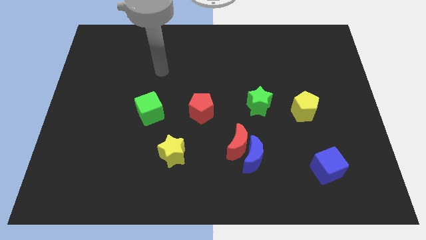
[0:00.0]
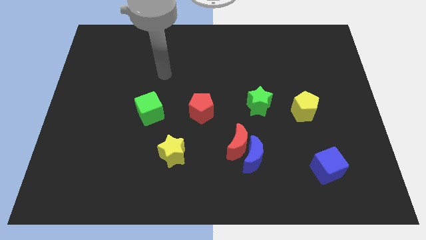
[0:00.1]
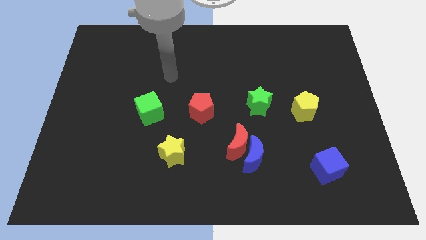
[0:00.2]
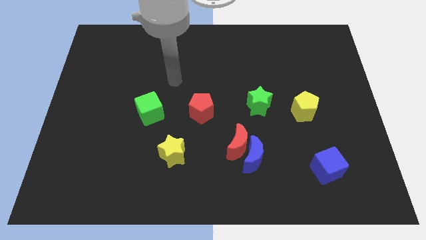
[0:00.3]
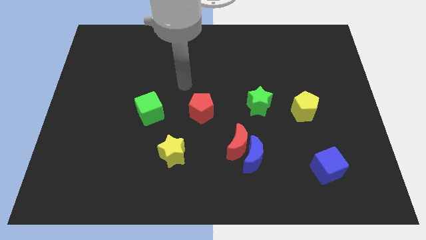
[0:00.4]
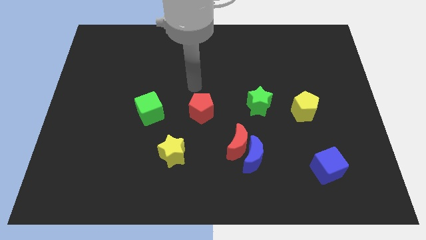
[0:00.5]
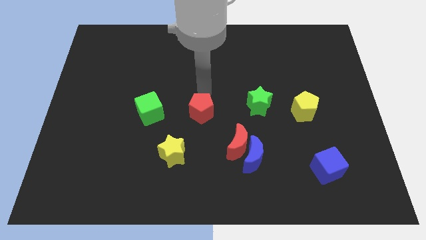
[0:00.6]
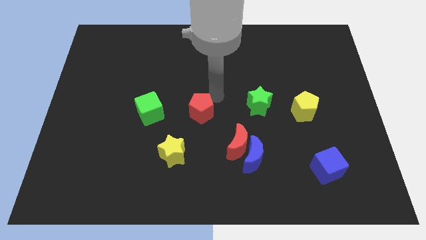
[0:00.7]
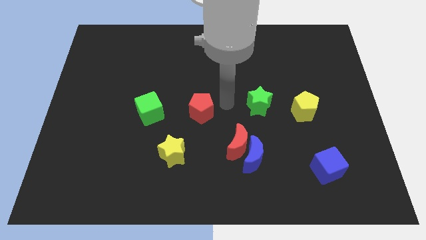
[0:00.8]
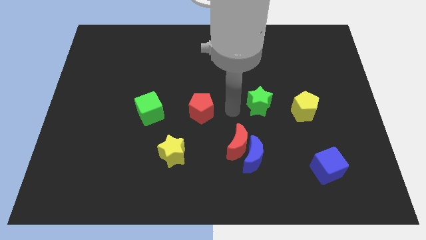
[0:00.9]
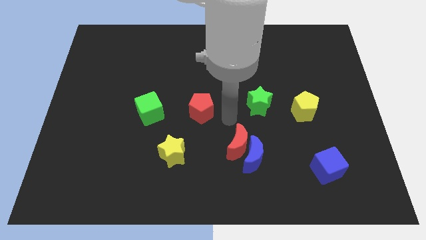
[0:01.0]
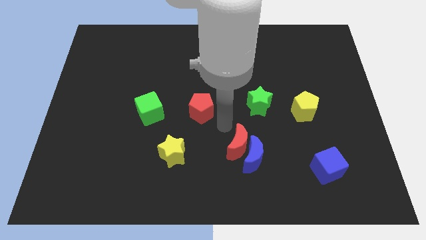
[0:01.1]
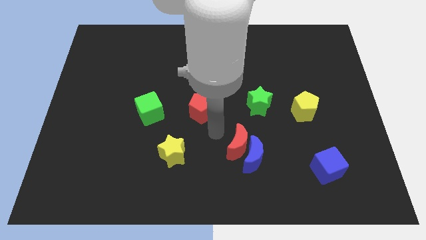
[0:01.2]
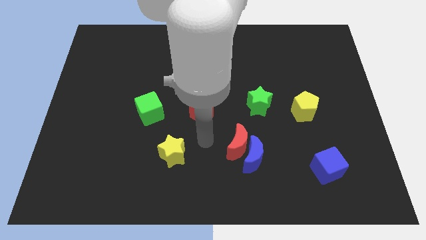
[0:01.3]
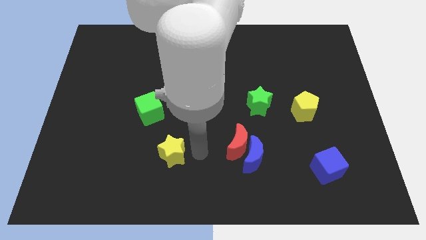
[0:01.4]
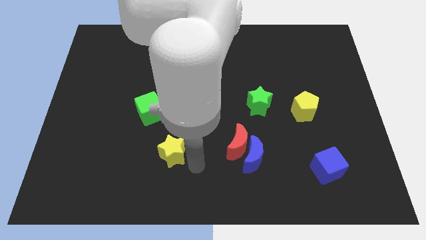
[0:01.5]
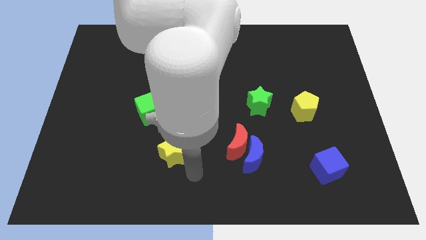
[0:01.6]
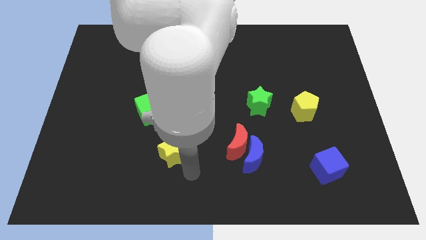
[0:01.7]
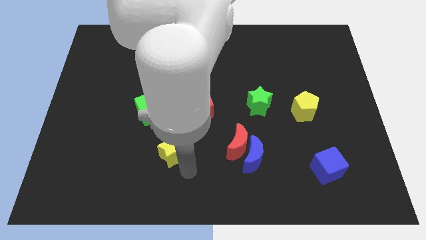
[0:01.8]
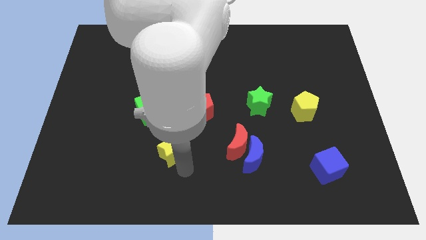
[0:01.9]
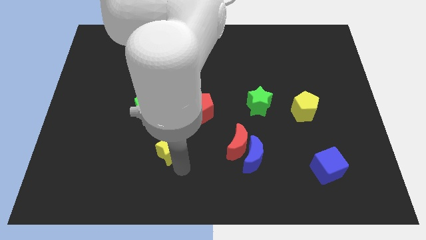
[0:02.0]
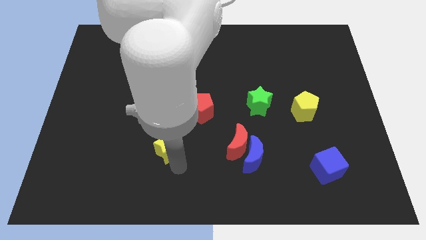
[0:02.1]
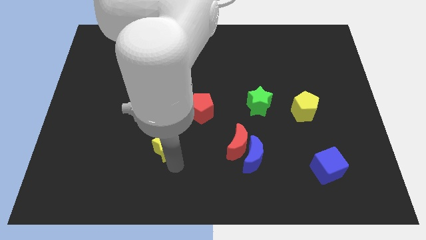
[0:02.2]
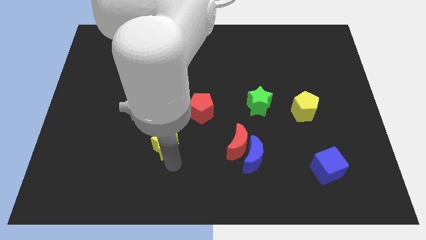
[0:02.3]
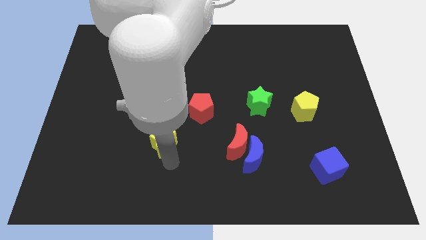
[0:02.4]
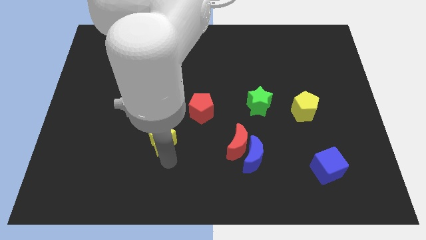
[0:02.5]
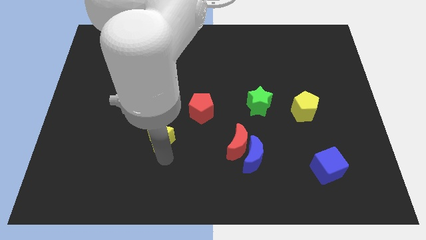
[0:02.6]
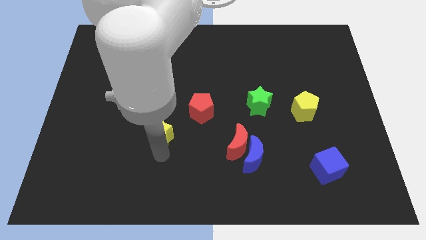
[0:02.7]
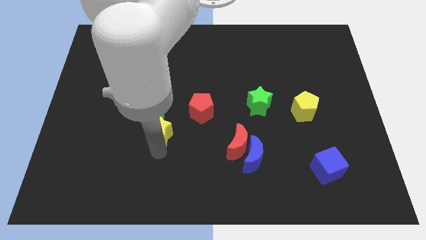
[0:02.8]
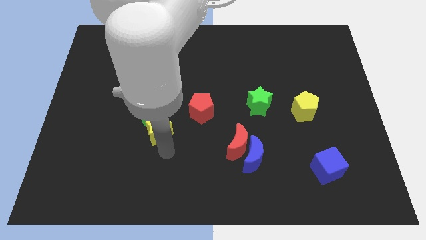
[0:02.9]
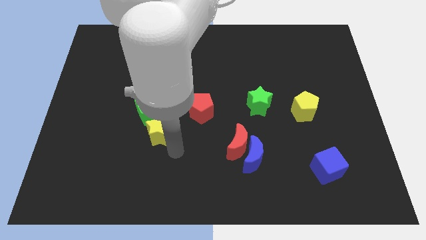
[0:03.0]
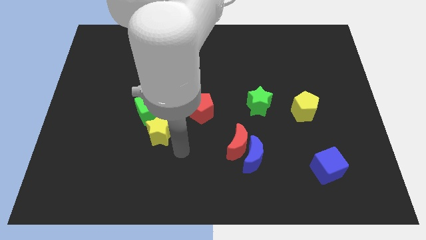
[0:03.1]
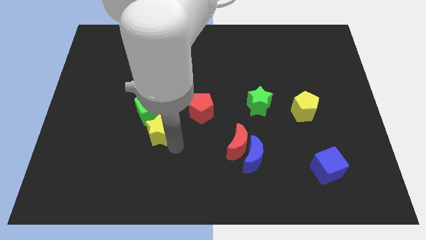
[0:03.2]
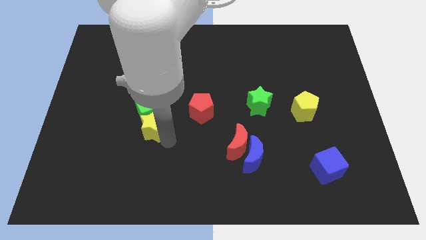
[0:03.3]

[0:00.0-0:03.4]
slightly move the yellow star up and left

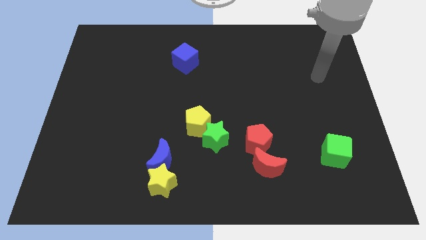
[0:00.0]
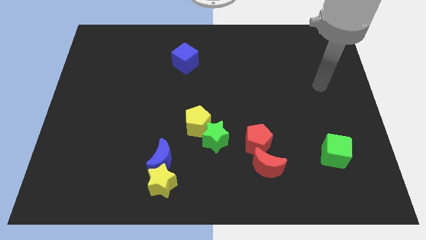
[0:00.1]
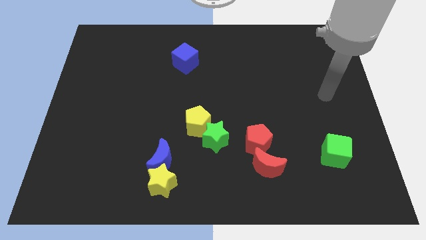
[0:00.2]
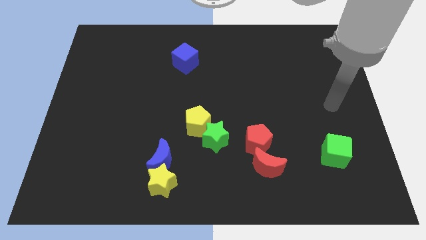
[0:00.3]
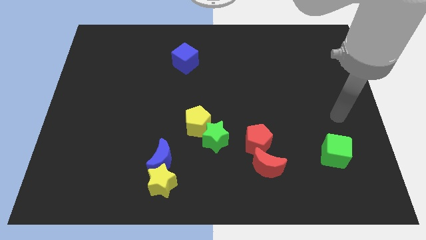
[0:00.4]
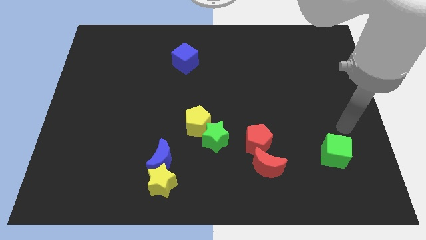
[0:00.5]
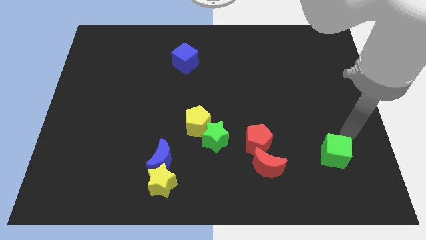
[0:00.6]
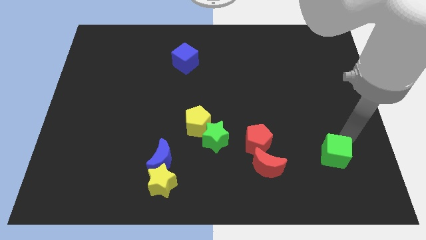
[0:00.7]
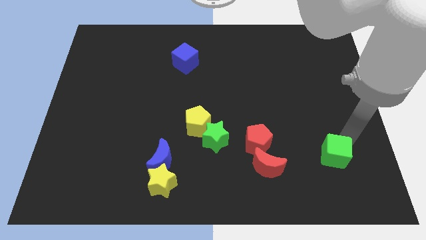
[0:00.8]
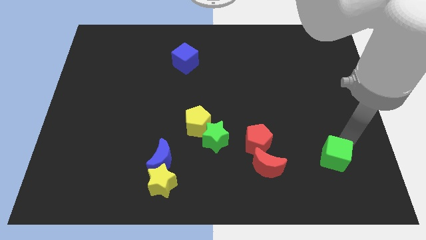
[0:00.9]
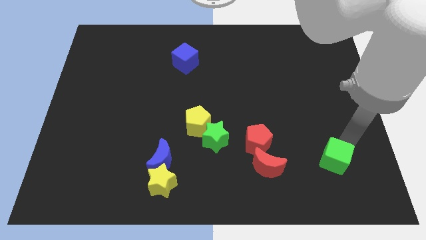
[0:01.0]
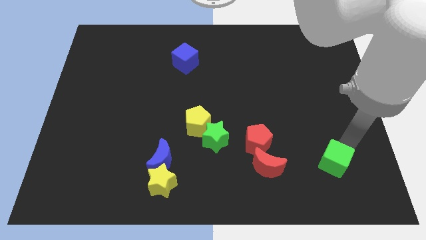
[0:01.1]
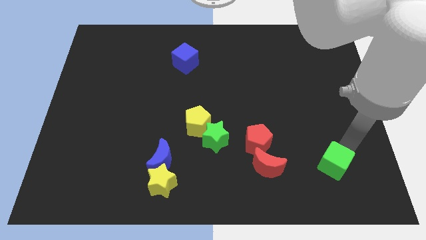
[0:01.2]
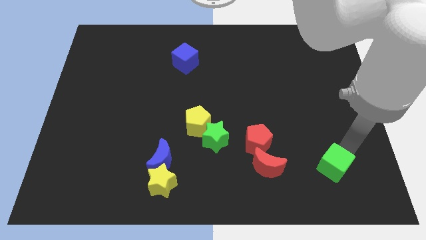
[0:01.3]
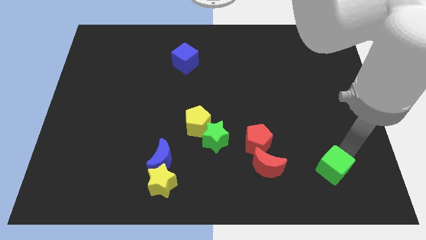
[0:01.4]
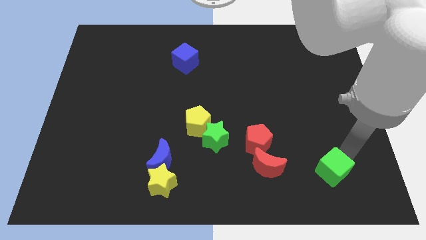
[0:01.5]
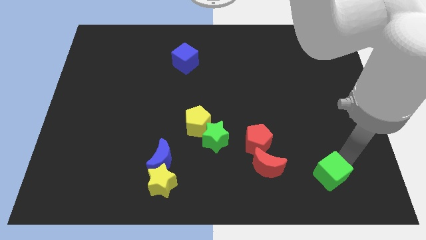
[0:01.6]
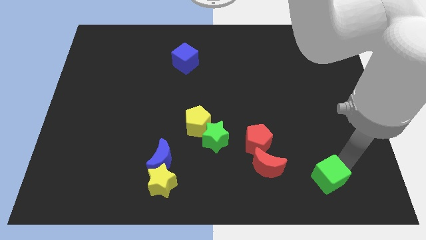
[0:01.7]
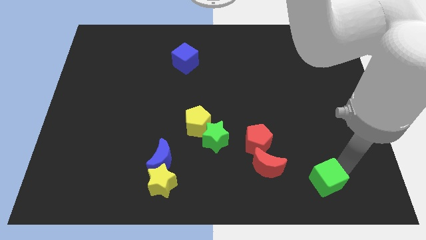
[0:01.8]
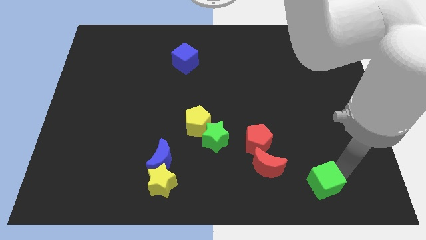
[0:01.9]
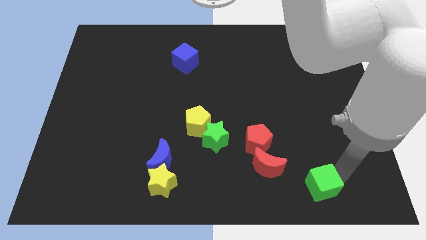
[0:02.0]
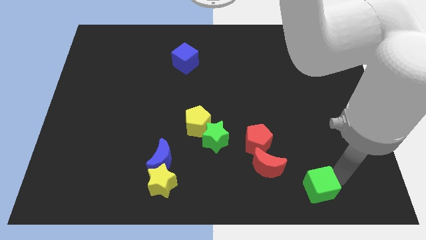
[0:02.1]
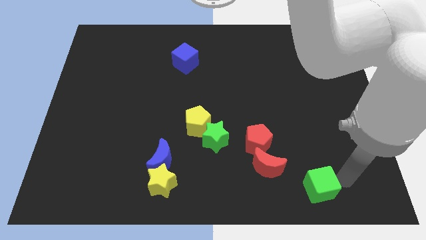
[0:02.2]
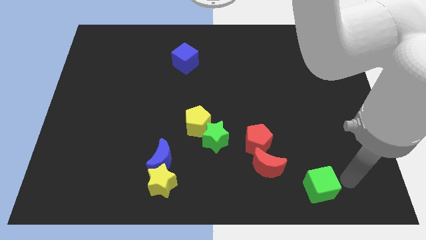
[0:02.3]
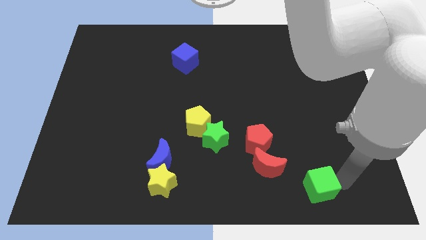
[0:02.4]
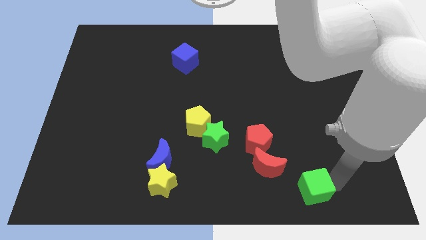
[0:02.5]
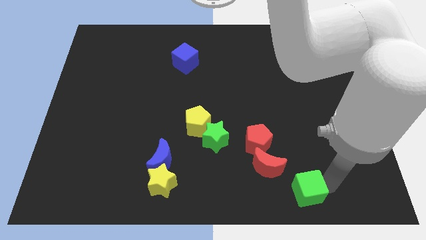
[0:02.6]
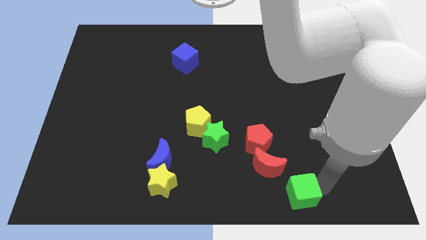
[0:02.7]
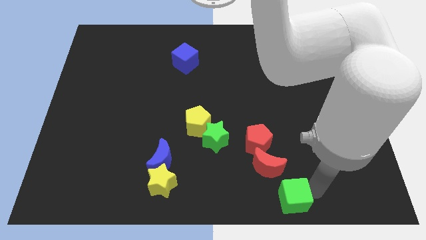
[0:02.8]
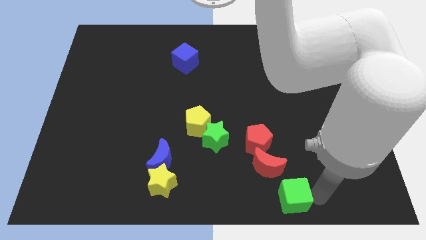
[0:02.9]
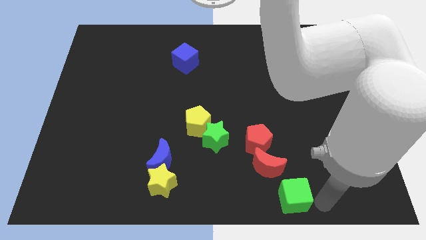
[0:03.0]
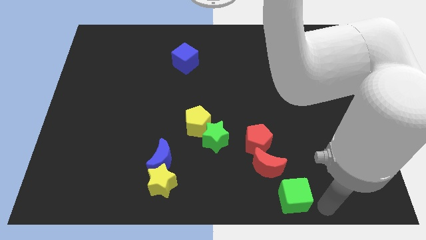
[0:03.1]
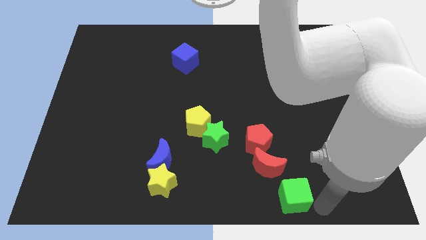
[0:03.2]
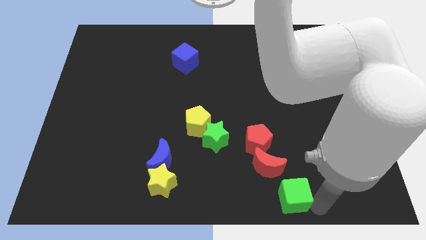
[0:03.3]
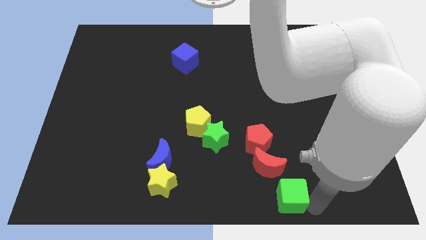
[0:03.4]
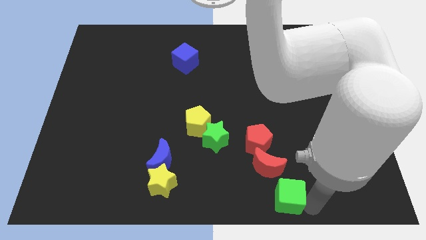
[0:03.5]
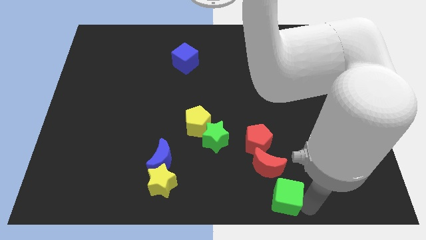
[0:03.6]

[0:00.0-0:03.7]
slide the green cube left a little bit

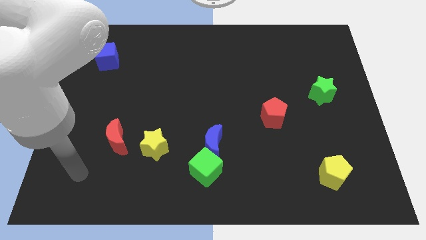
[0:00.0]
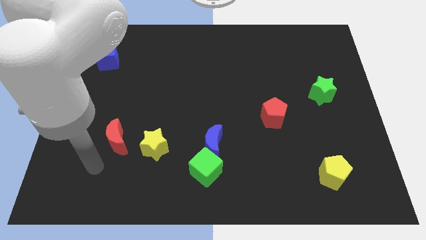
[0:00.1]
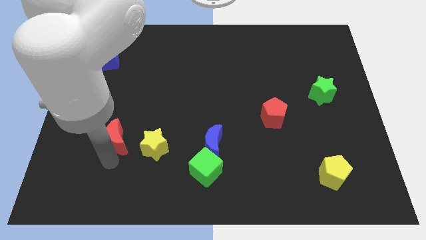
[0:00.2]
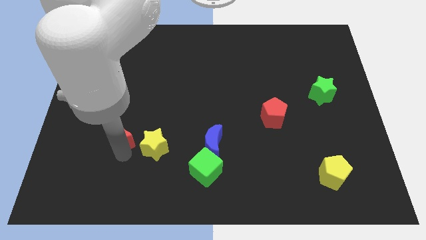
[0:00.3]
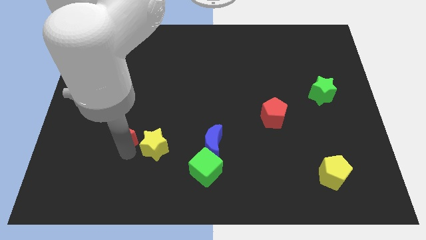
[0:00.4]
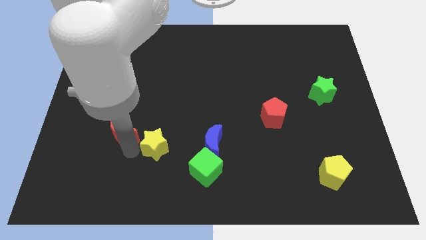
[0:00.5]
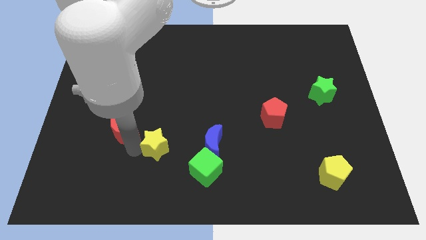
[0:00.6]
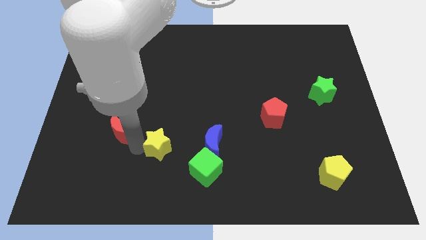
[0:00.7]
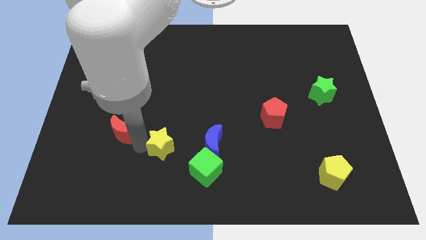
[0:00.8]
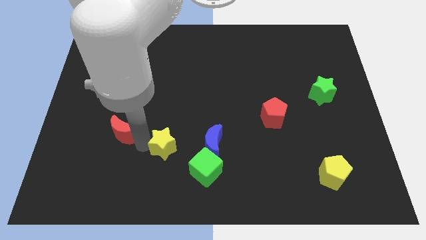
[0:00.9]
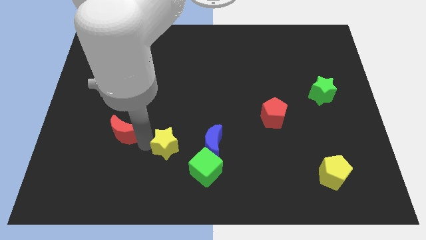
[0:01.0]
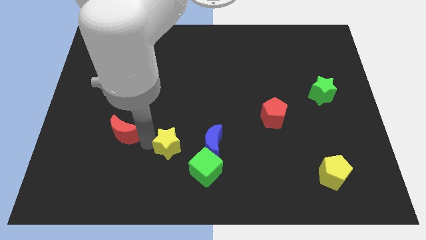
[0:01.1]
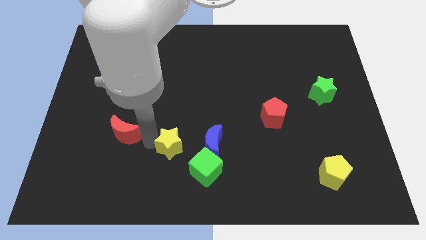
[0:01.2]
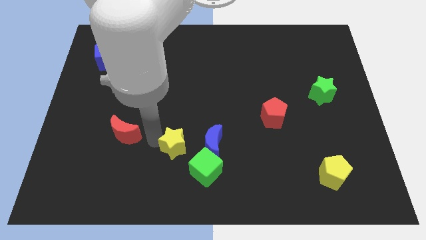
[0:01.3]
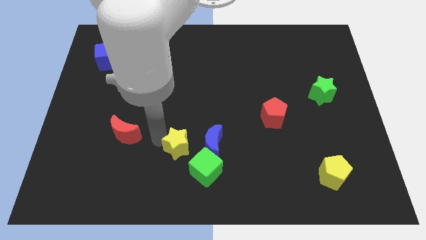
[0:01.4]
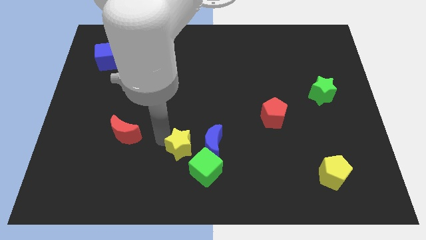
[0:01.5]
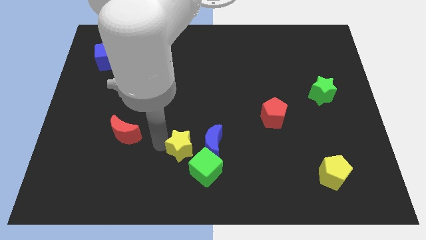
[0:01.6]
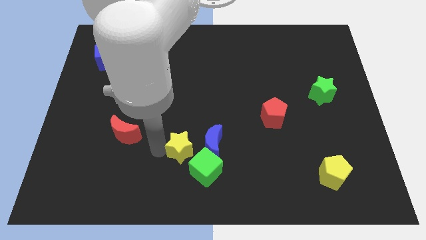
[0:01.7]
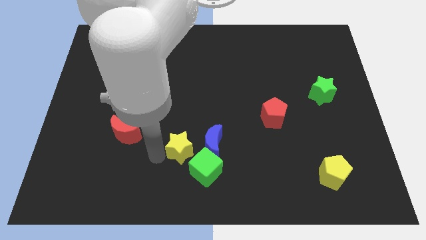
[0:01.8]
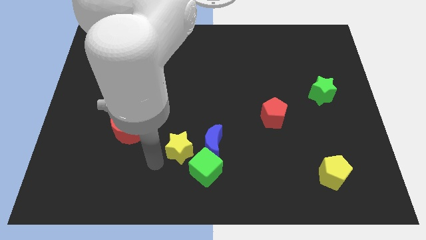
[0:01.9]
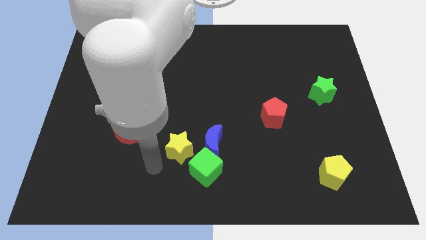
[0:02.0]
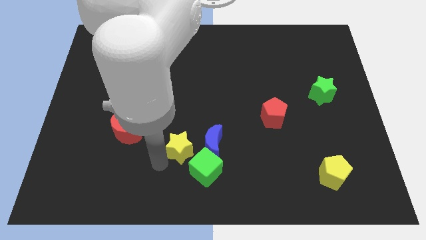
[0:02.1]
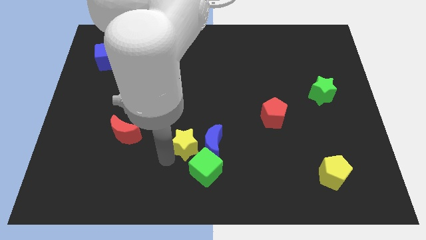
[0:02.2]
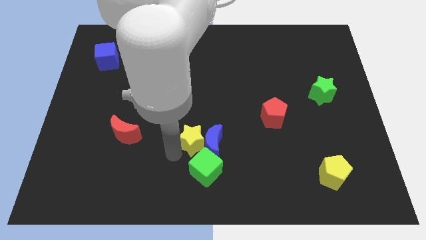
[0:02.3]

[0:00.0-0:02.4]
slightly move the yellow star to the right
